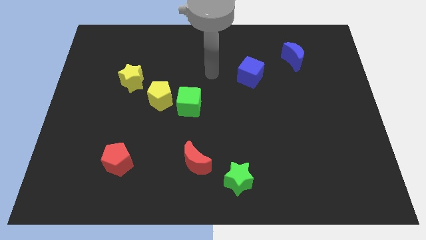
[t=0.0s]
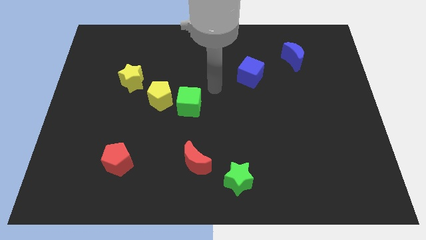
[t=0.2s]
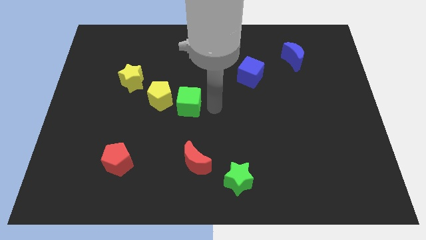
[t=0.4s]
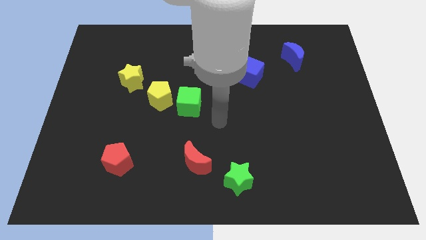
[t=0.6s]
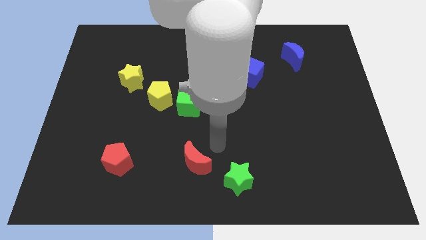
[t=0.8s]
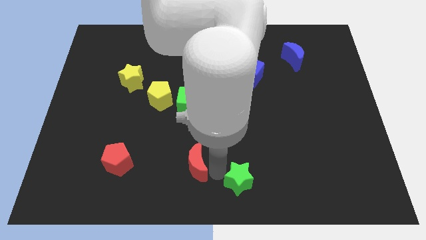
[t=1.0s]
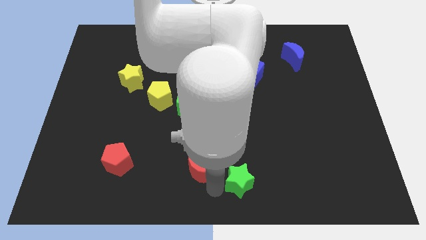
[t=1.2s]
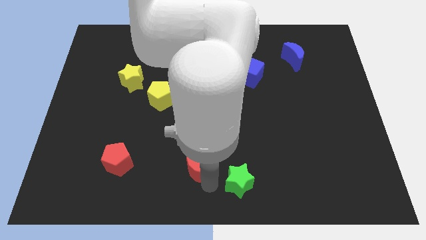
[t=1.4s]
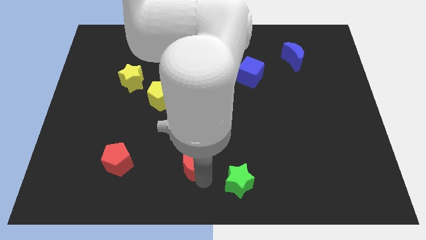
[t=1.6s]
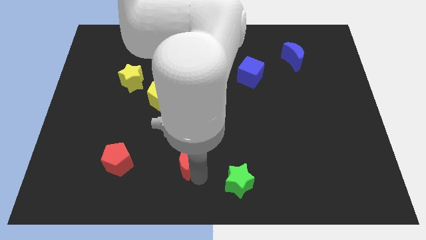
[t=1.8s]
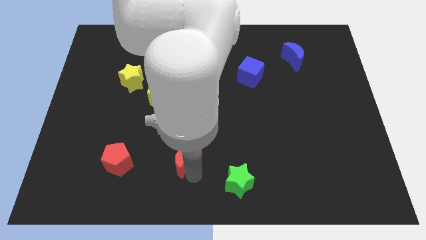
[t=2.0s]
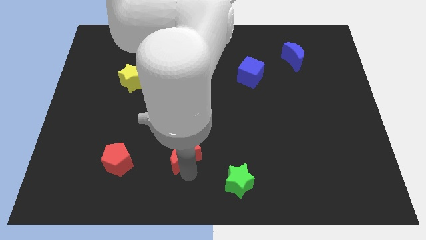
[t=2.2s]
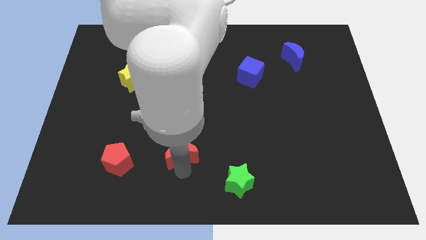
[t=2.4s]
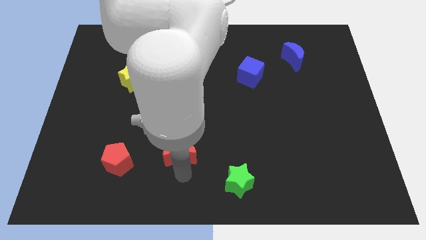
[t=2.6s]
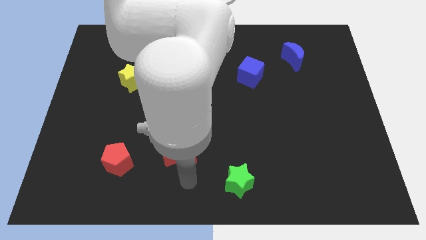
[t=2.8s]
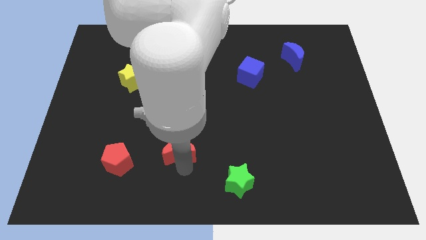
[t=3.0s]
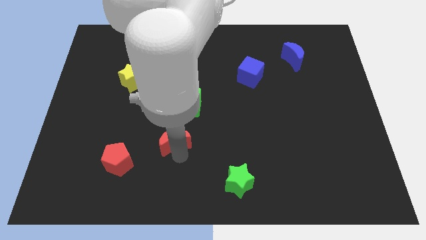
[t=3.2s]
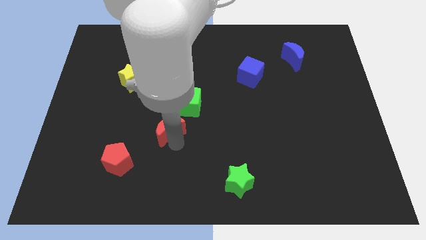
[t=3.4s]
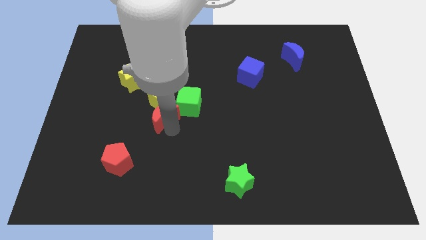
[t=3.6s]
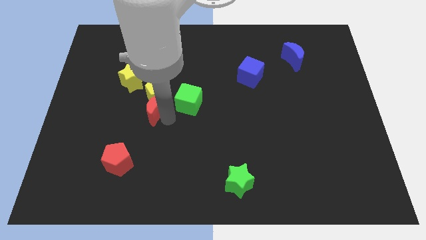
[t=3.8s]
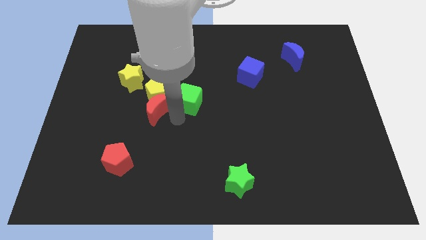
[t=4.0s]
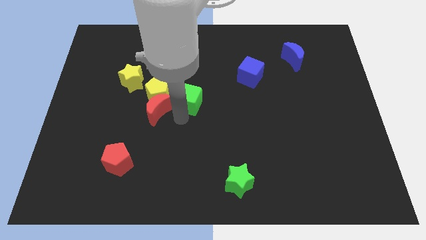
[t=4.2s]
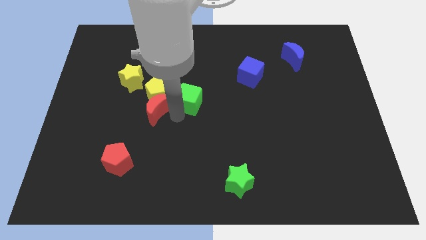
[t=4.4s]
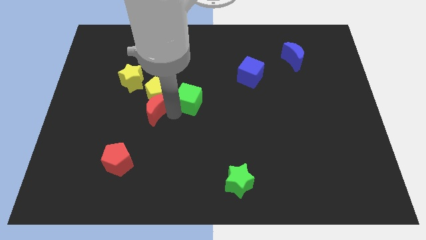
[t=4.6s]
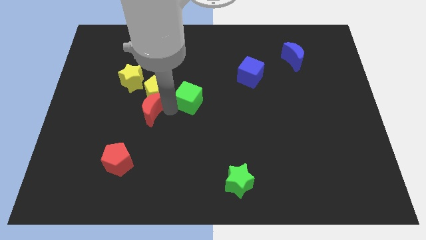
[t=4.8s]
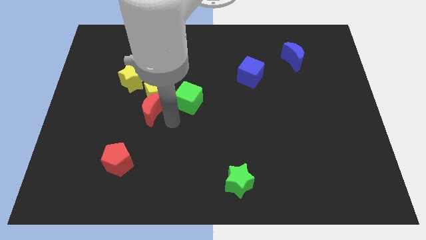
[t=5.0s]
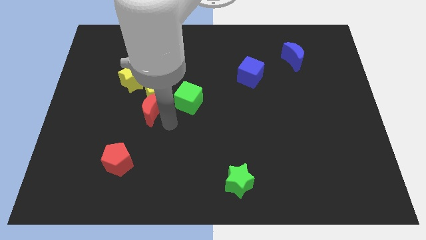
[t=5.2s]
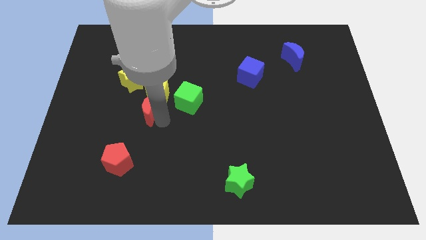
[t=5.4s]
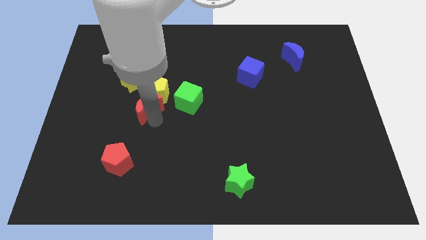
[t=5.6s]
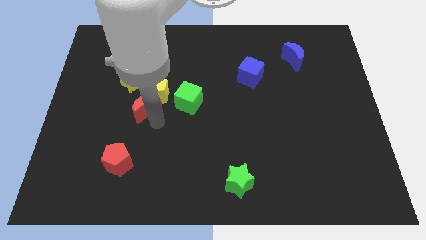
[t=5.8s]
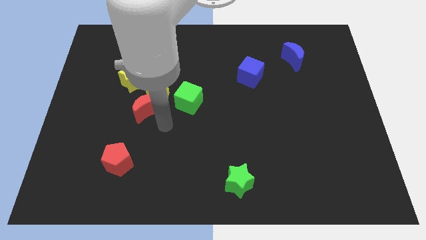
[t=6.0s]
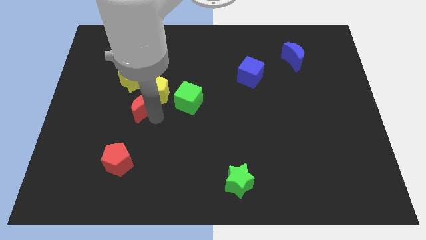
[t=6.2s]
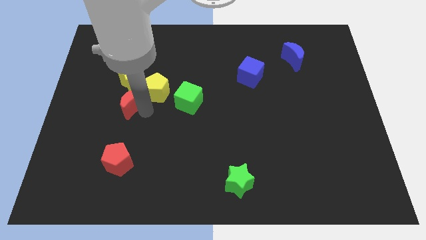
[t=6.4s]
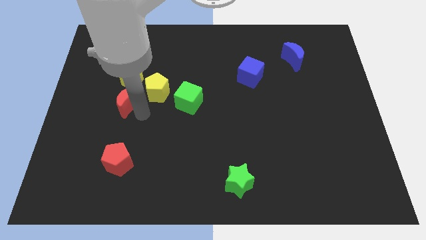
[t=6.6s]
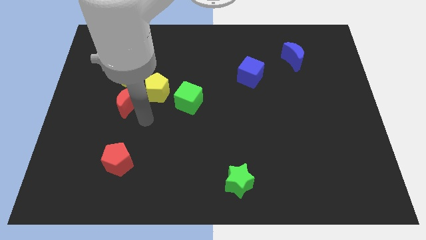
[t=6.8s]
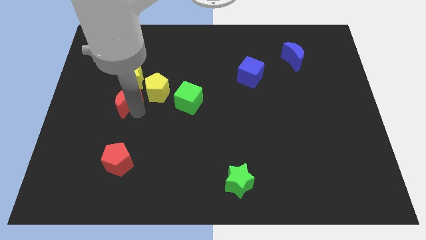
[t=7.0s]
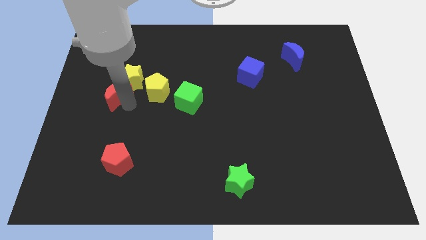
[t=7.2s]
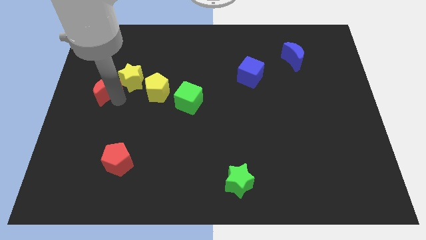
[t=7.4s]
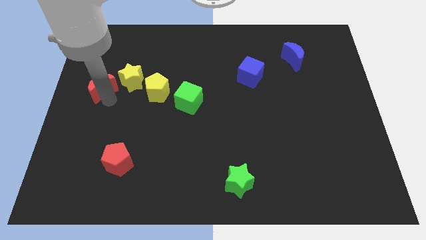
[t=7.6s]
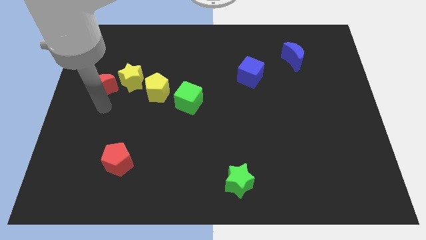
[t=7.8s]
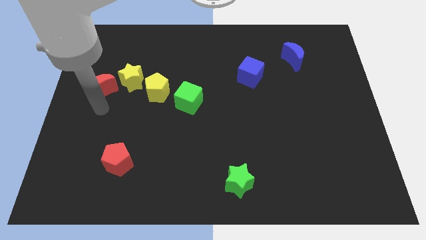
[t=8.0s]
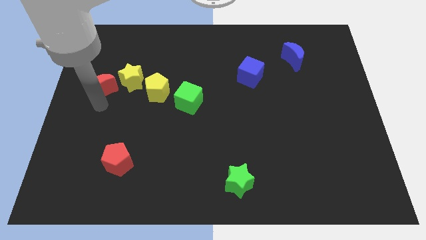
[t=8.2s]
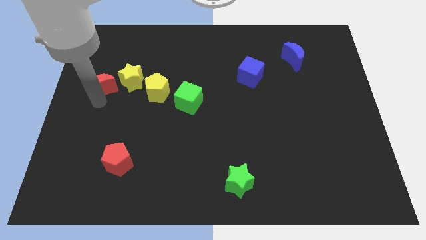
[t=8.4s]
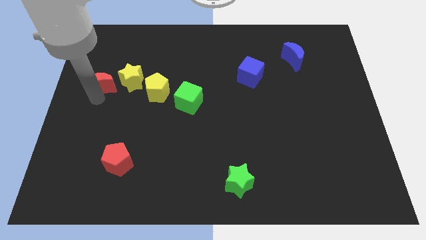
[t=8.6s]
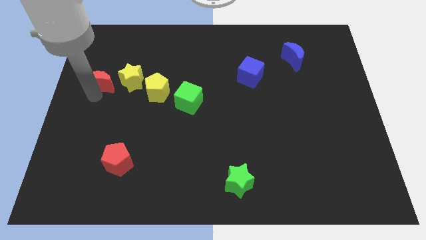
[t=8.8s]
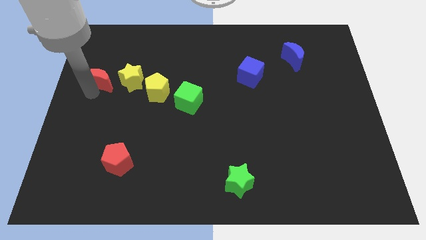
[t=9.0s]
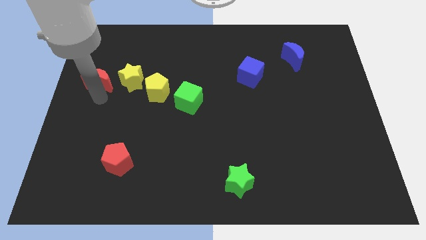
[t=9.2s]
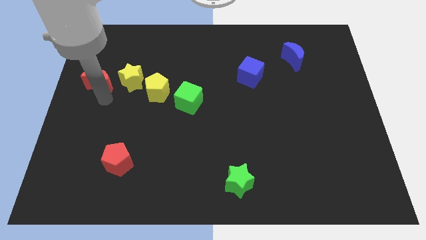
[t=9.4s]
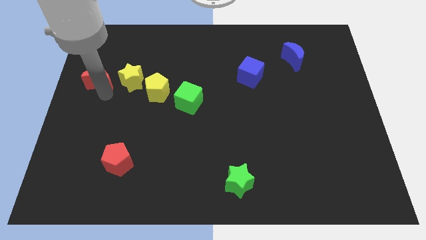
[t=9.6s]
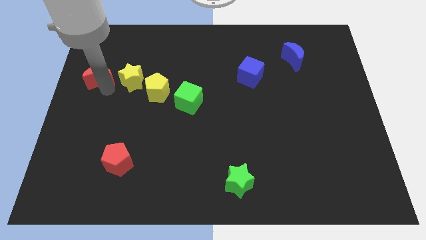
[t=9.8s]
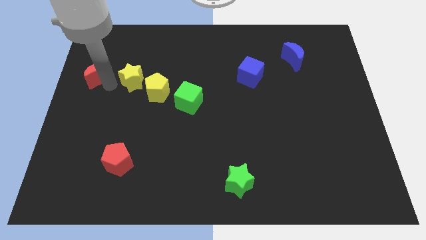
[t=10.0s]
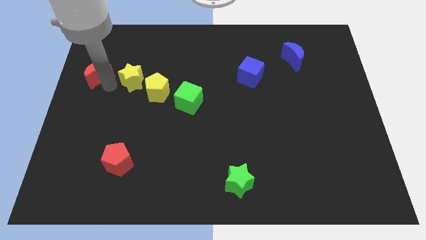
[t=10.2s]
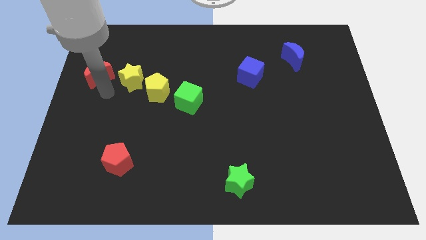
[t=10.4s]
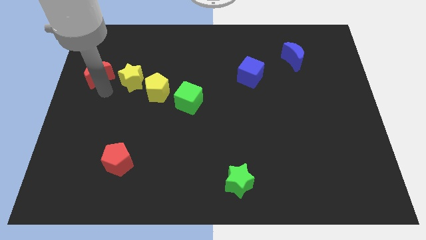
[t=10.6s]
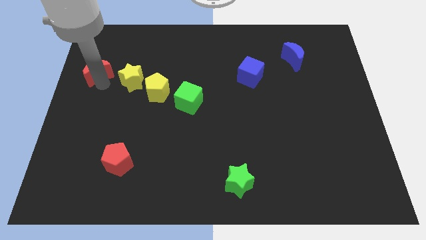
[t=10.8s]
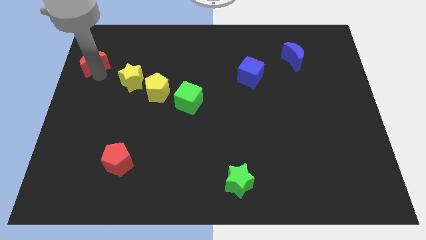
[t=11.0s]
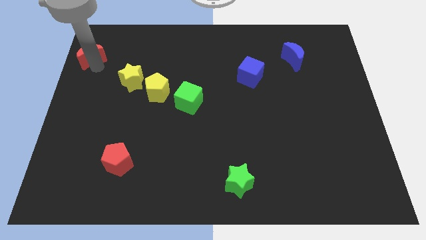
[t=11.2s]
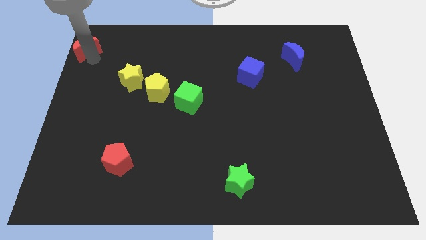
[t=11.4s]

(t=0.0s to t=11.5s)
put the red moon to the top left of the board

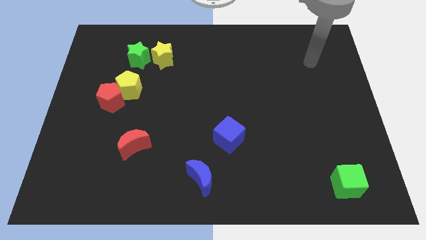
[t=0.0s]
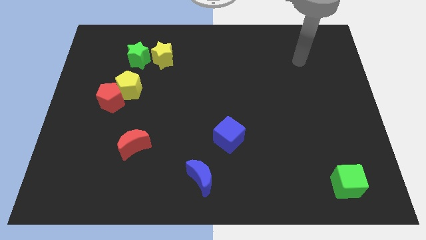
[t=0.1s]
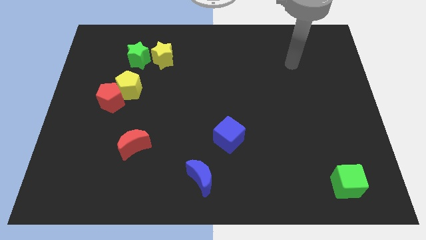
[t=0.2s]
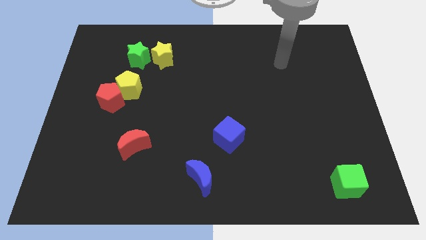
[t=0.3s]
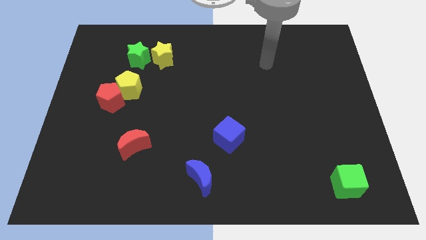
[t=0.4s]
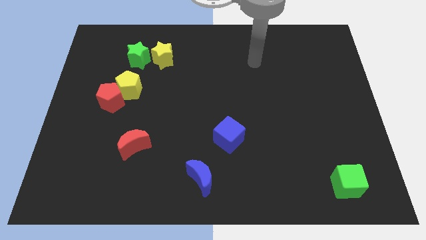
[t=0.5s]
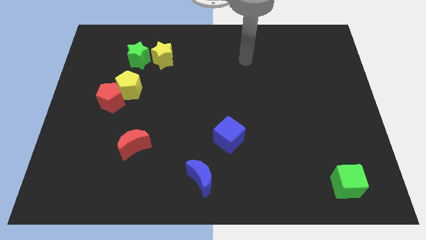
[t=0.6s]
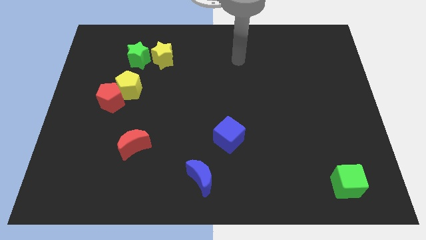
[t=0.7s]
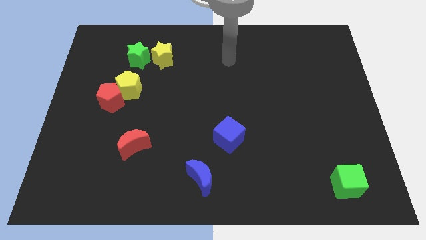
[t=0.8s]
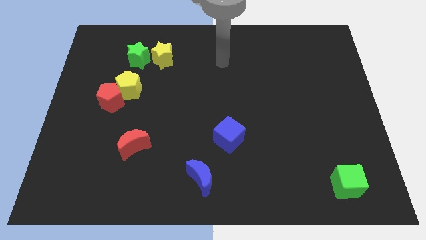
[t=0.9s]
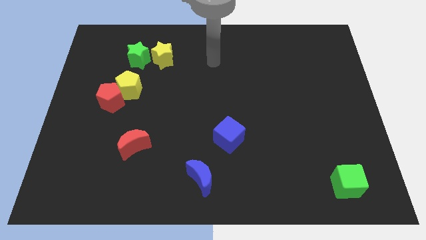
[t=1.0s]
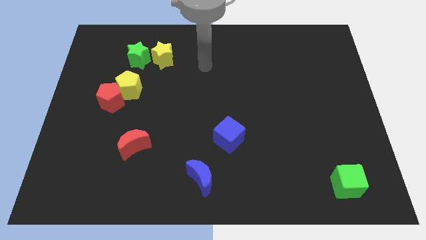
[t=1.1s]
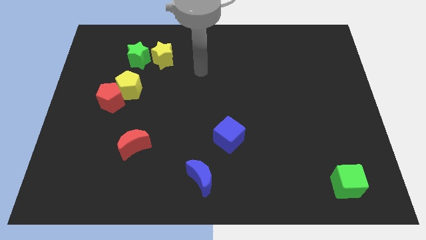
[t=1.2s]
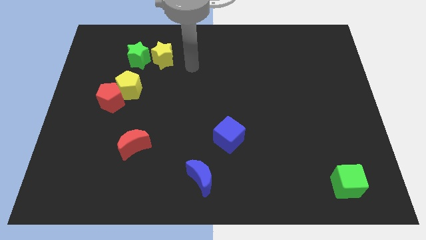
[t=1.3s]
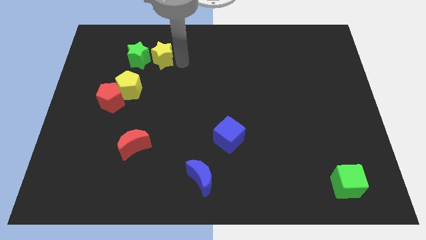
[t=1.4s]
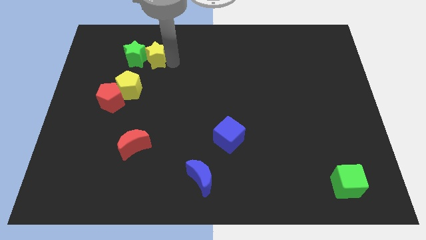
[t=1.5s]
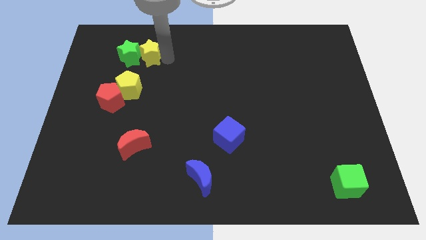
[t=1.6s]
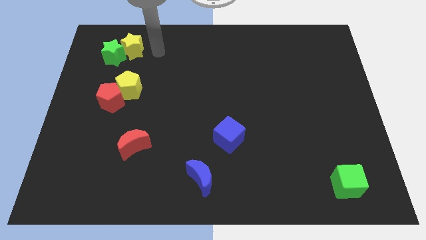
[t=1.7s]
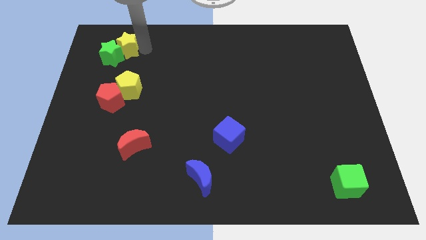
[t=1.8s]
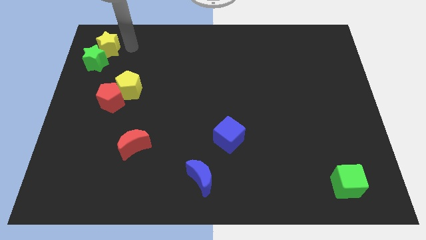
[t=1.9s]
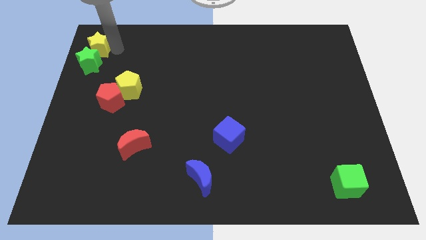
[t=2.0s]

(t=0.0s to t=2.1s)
put the green star to the left side
